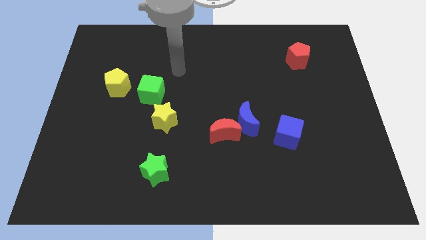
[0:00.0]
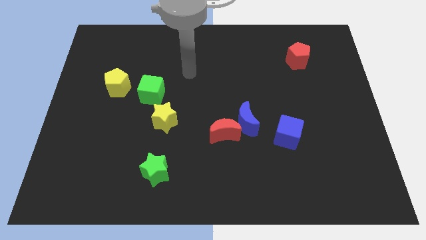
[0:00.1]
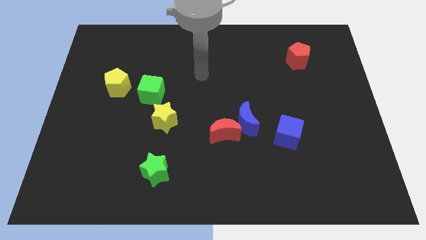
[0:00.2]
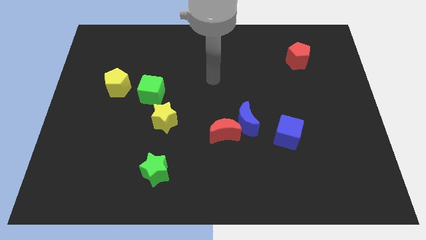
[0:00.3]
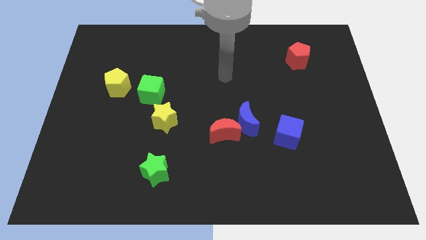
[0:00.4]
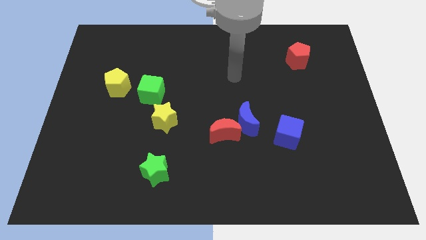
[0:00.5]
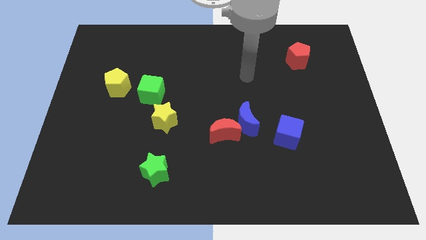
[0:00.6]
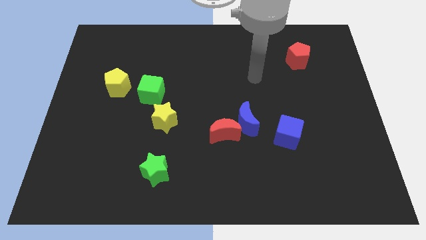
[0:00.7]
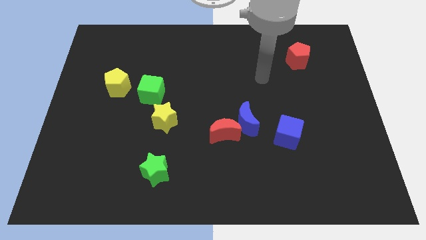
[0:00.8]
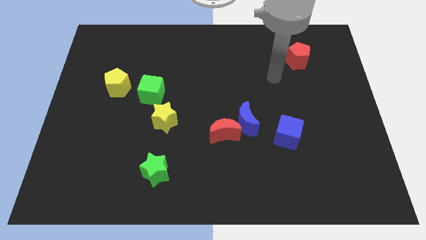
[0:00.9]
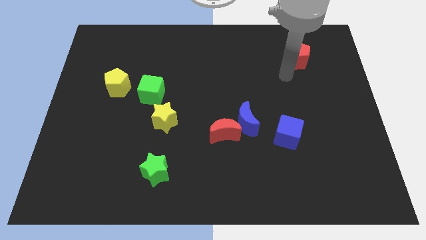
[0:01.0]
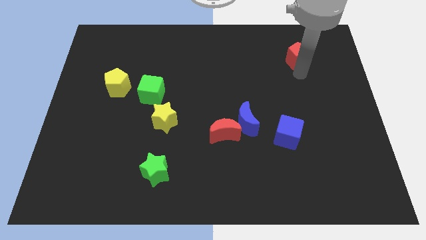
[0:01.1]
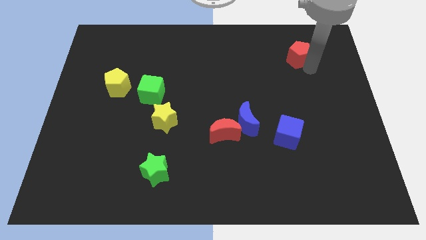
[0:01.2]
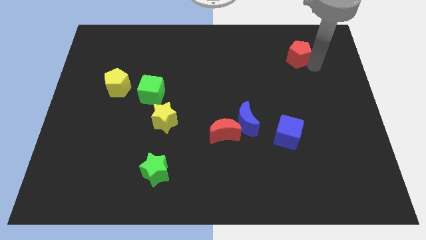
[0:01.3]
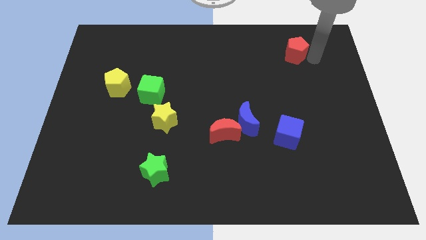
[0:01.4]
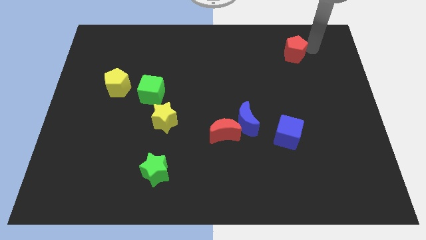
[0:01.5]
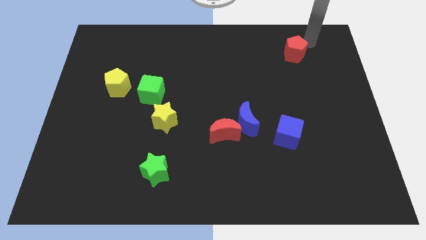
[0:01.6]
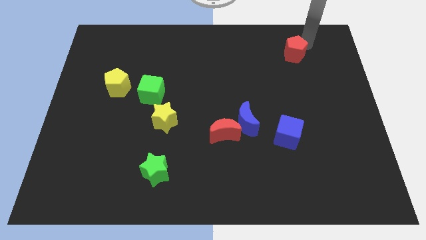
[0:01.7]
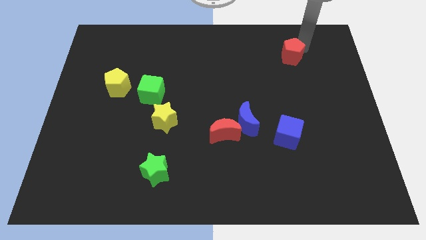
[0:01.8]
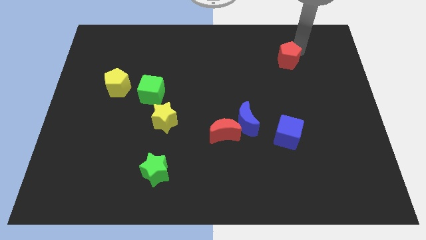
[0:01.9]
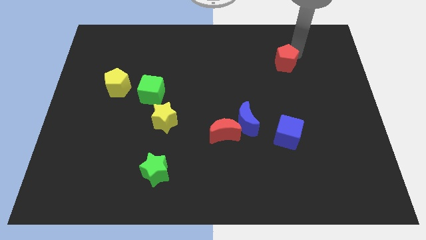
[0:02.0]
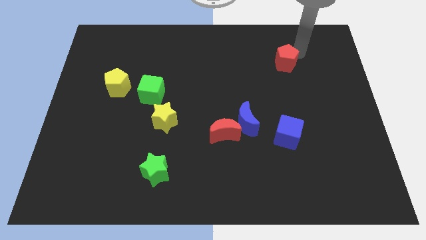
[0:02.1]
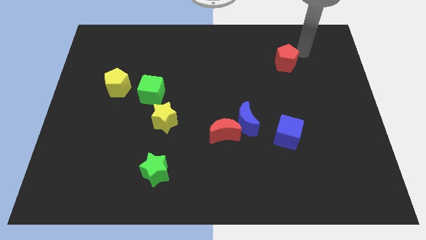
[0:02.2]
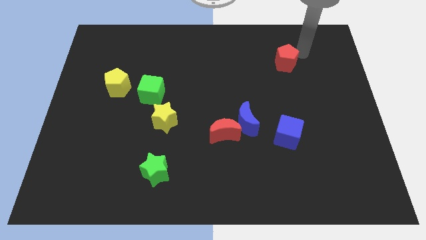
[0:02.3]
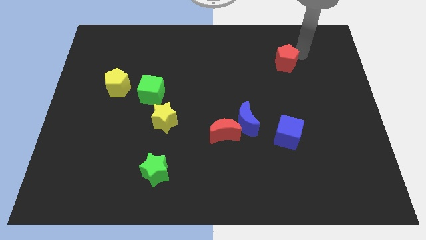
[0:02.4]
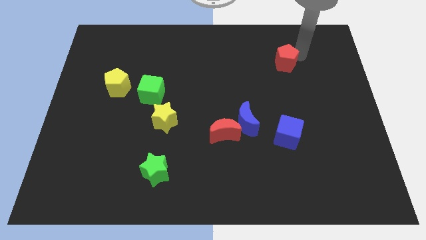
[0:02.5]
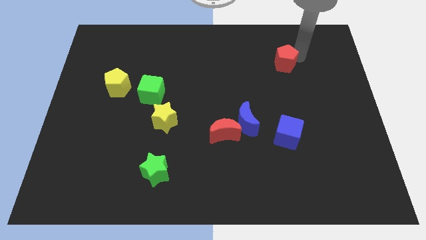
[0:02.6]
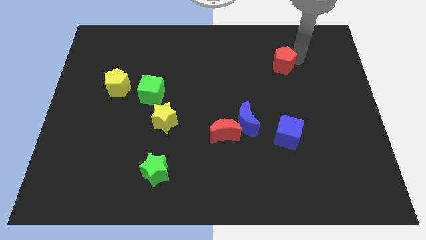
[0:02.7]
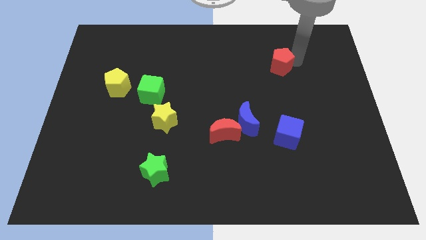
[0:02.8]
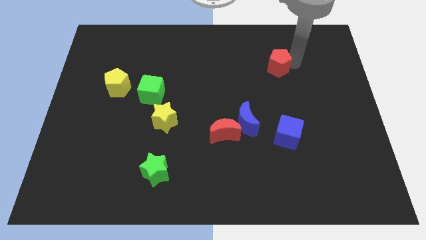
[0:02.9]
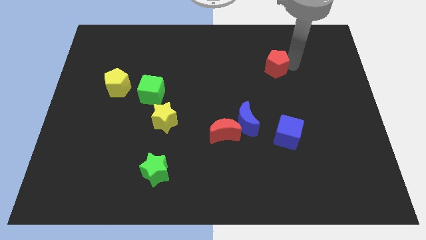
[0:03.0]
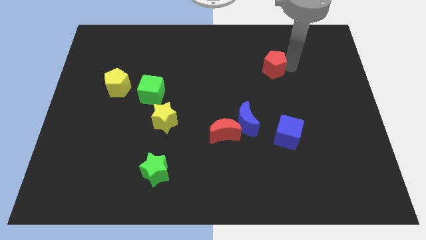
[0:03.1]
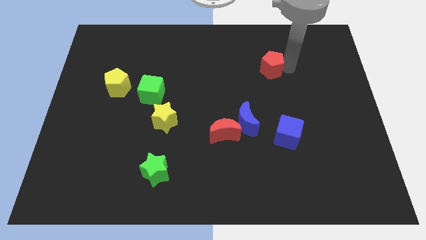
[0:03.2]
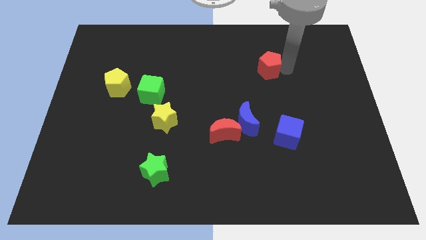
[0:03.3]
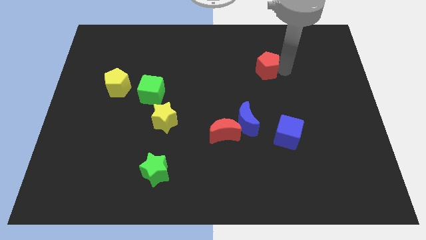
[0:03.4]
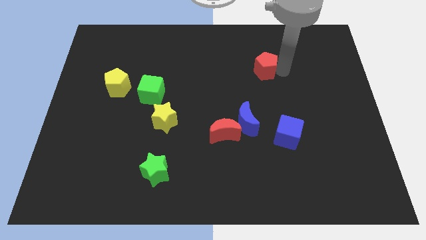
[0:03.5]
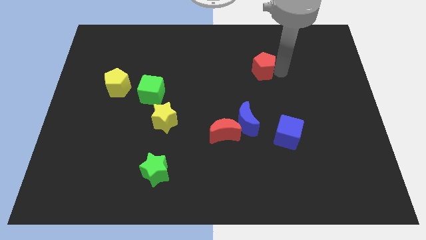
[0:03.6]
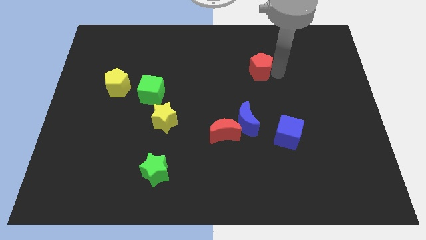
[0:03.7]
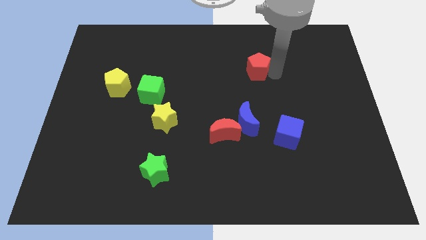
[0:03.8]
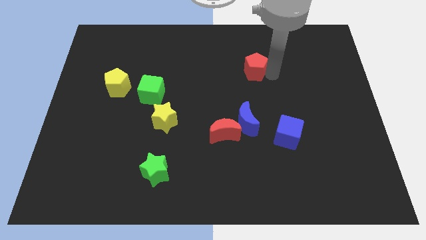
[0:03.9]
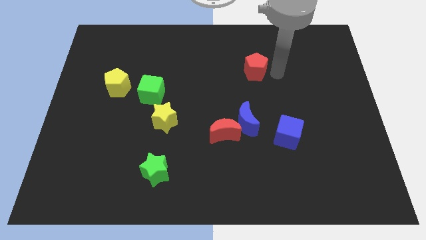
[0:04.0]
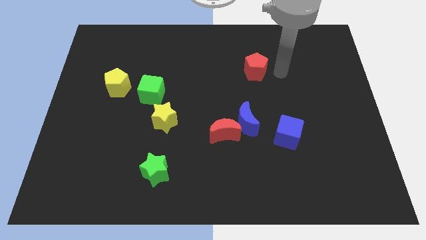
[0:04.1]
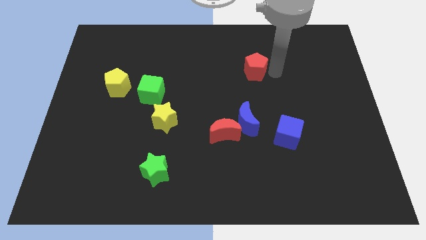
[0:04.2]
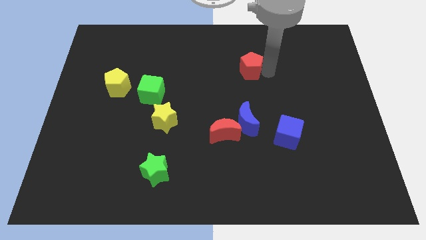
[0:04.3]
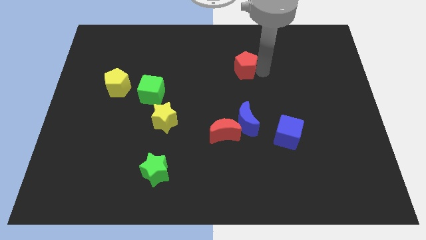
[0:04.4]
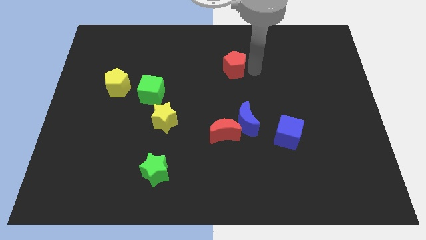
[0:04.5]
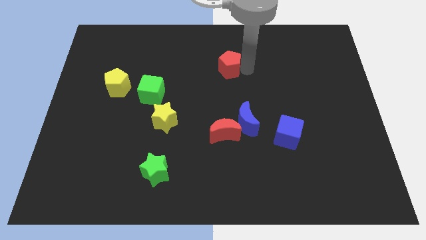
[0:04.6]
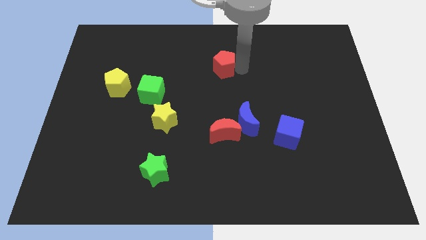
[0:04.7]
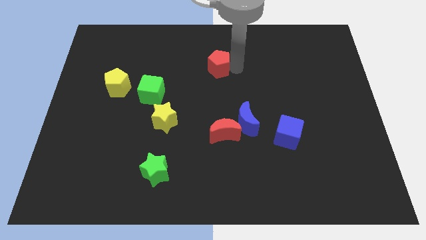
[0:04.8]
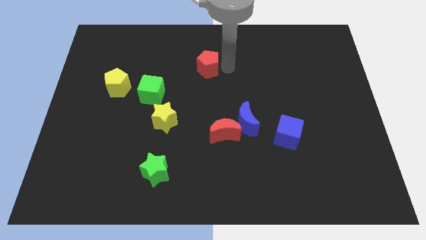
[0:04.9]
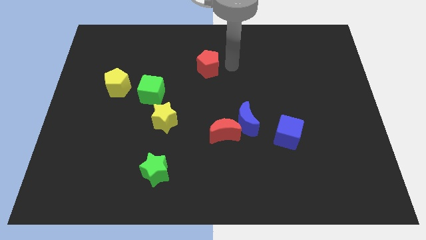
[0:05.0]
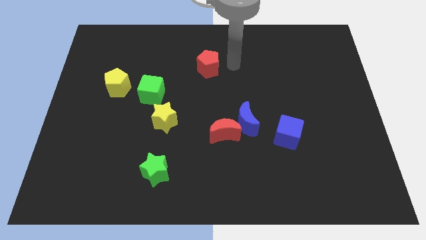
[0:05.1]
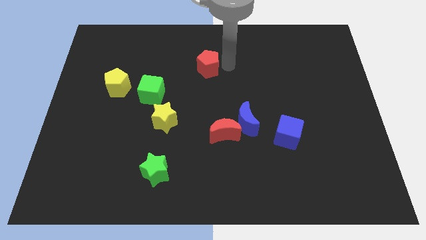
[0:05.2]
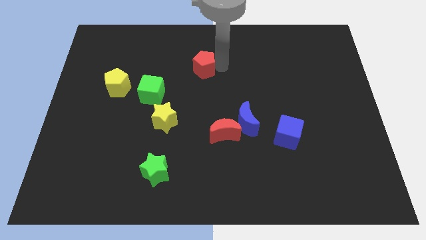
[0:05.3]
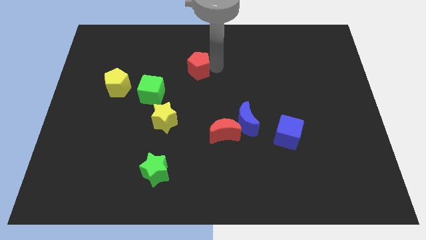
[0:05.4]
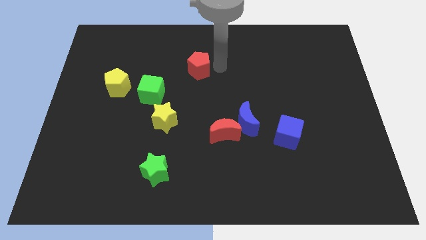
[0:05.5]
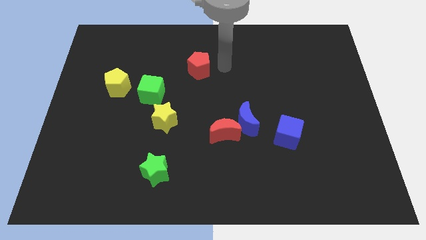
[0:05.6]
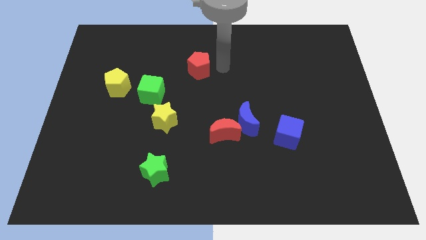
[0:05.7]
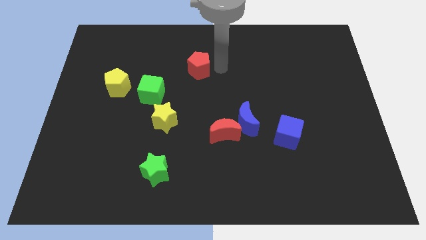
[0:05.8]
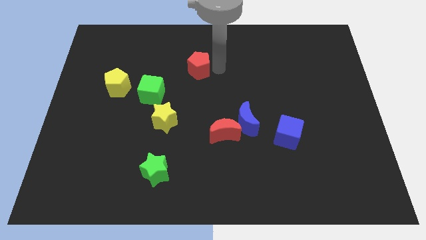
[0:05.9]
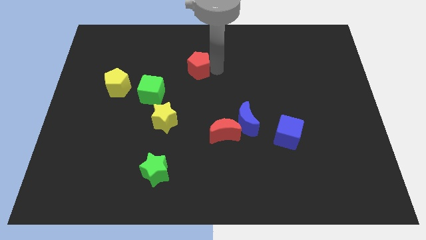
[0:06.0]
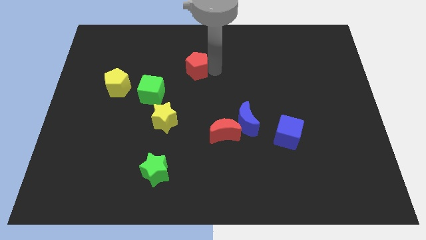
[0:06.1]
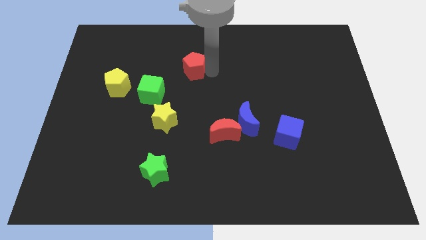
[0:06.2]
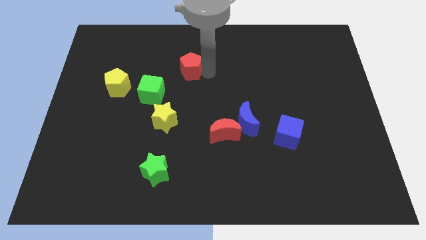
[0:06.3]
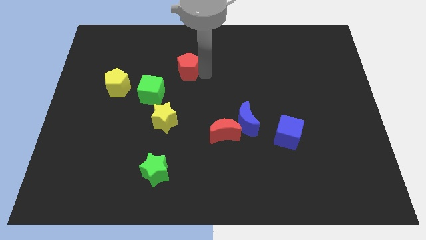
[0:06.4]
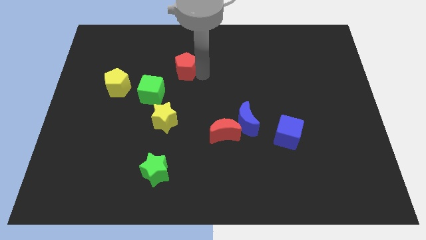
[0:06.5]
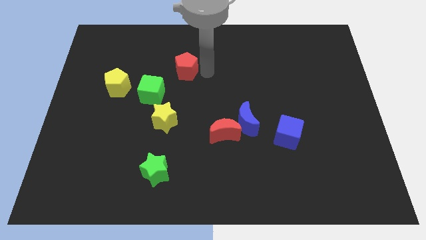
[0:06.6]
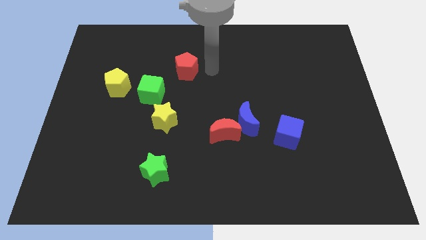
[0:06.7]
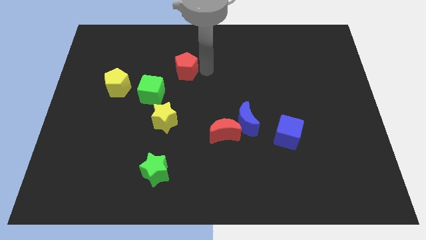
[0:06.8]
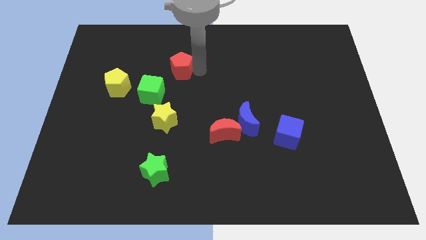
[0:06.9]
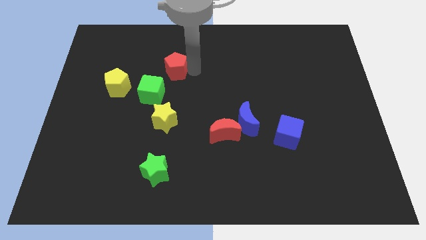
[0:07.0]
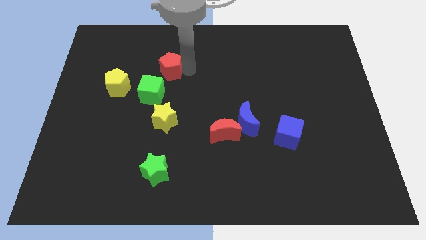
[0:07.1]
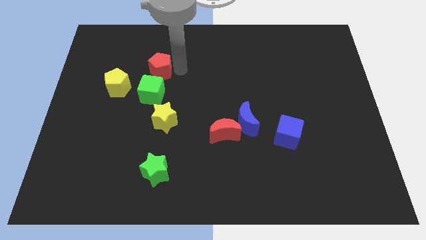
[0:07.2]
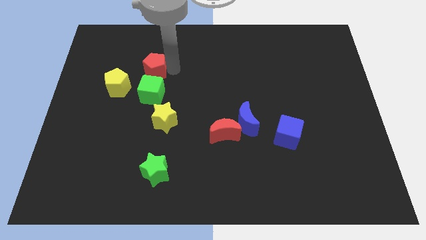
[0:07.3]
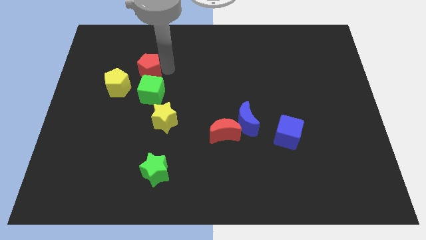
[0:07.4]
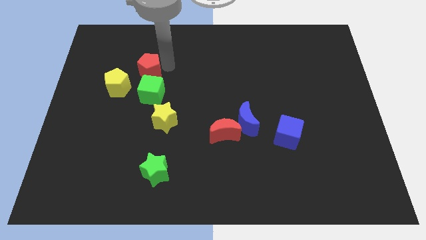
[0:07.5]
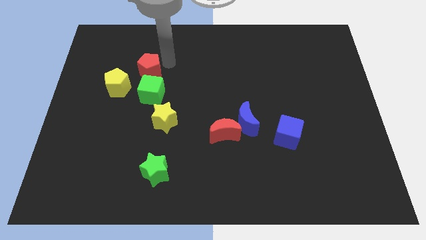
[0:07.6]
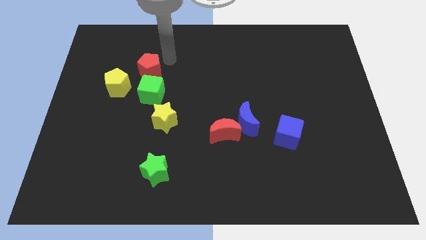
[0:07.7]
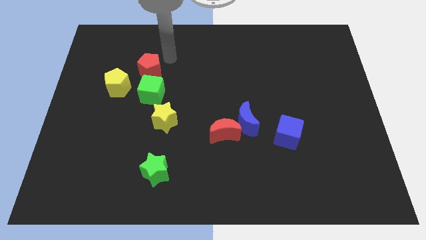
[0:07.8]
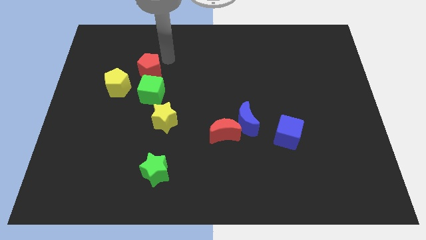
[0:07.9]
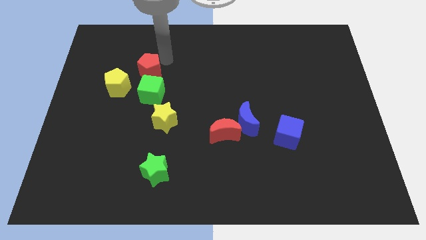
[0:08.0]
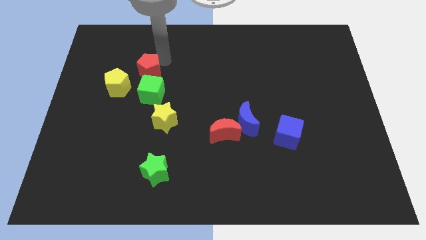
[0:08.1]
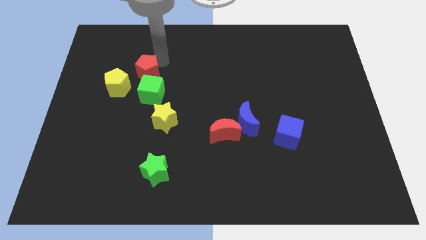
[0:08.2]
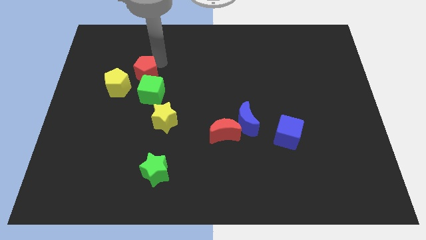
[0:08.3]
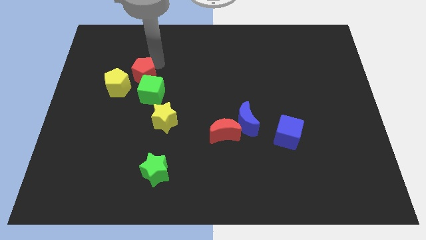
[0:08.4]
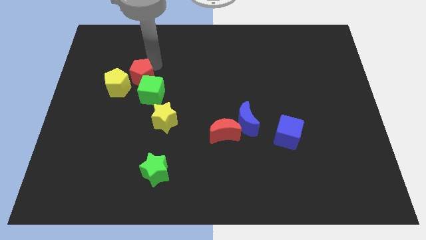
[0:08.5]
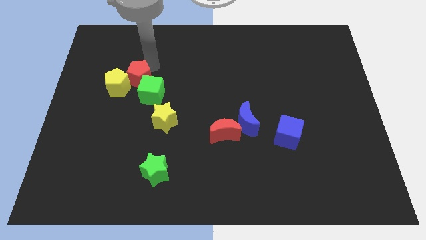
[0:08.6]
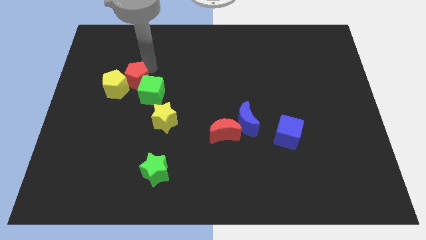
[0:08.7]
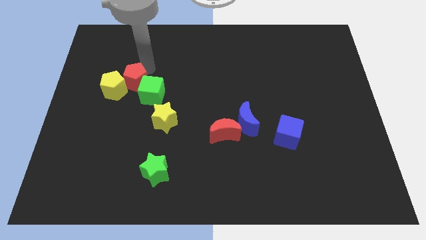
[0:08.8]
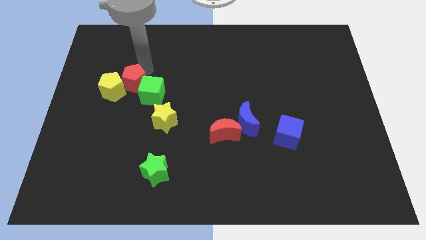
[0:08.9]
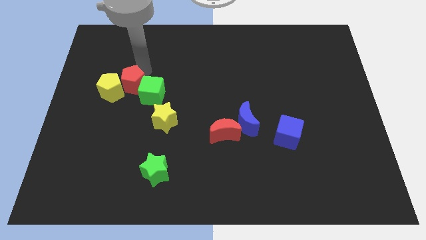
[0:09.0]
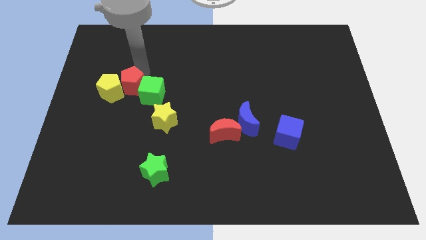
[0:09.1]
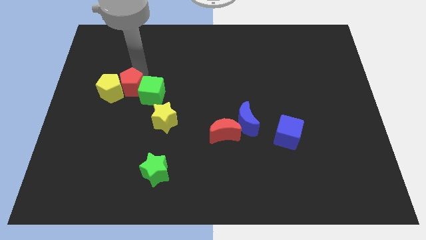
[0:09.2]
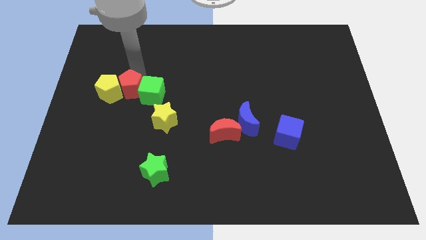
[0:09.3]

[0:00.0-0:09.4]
push the red pentagon to the top left side of the yellow star
